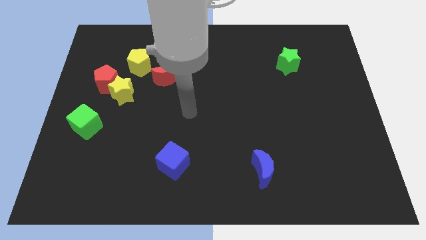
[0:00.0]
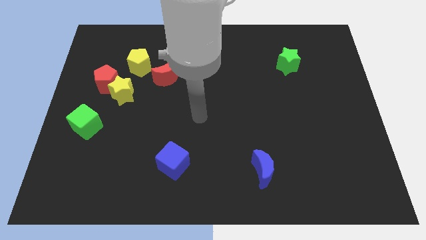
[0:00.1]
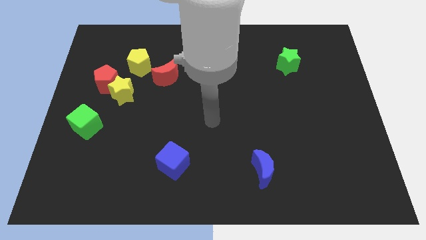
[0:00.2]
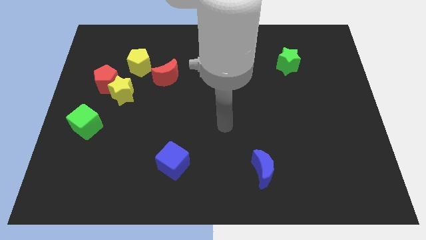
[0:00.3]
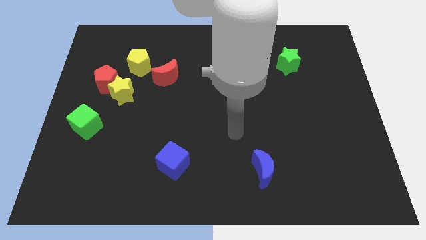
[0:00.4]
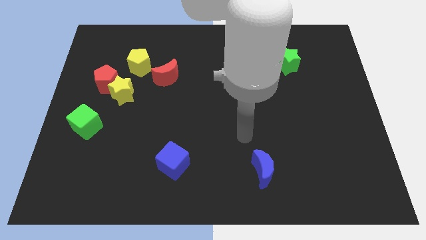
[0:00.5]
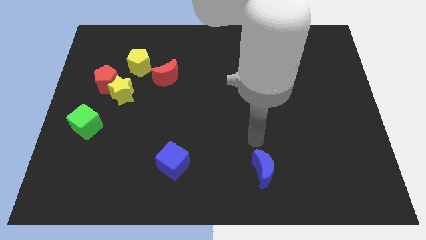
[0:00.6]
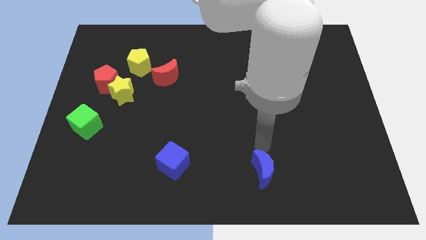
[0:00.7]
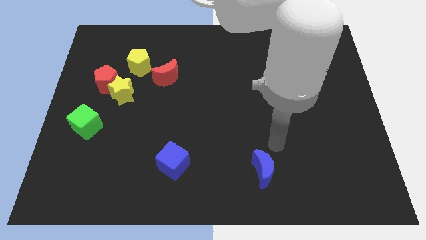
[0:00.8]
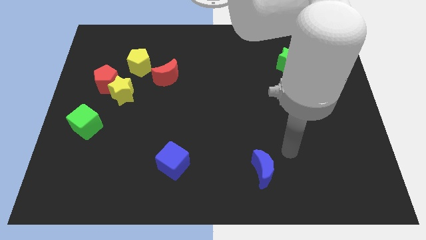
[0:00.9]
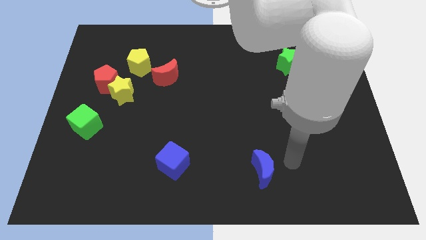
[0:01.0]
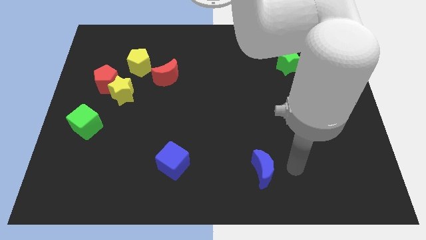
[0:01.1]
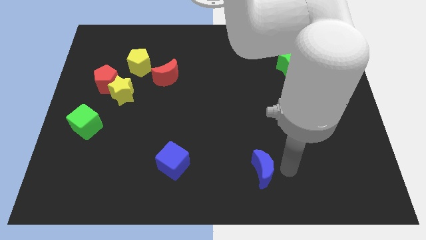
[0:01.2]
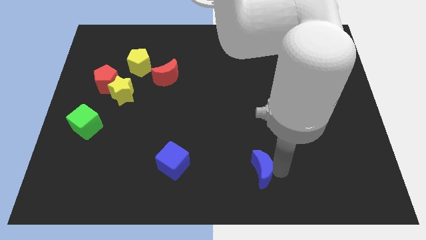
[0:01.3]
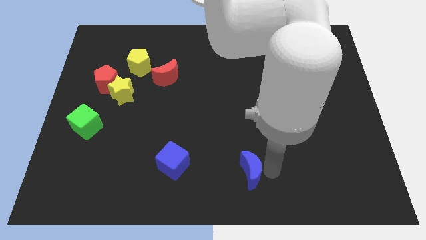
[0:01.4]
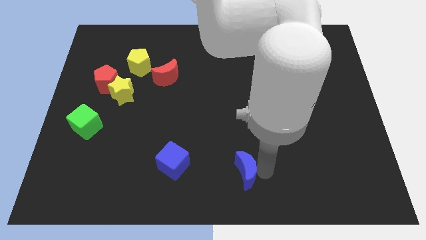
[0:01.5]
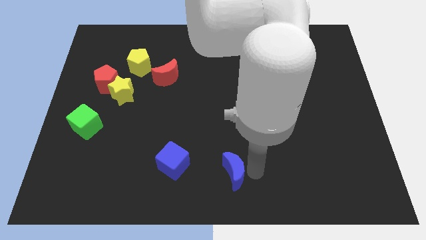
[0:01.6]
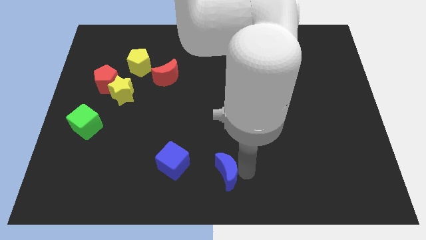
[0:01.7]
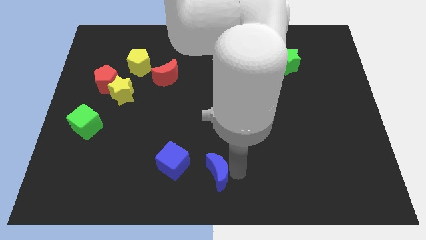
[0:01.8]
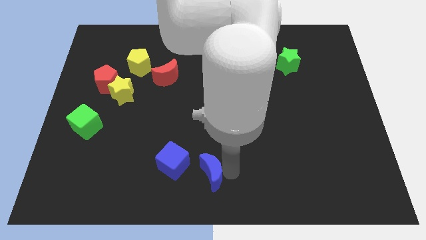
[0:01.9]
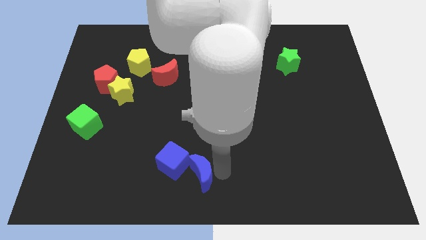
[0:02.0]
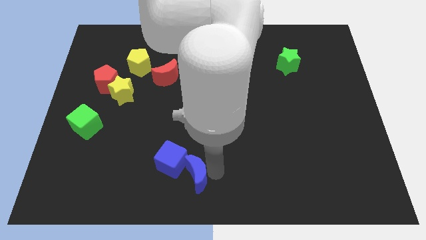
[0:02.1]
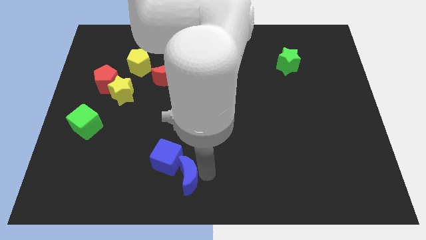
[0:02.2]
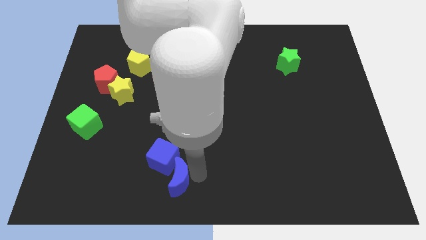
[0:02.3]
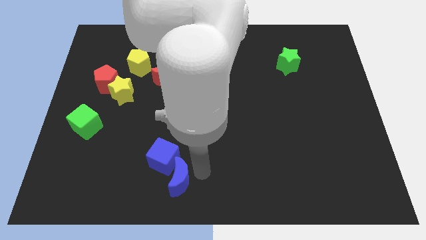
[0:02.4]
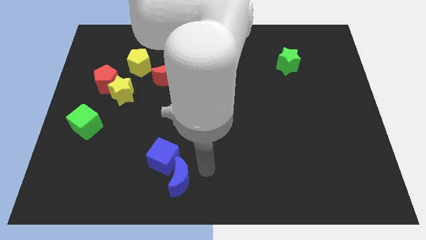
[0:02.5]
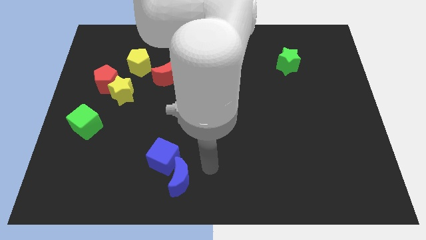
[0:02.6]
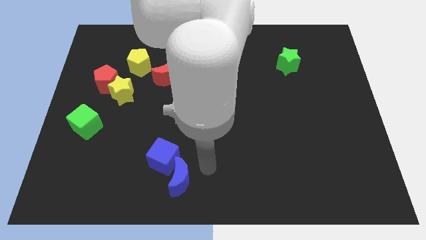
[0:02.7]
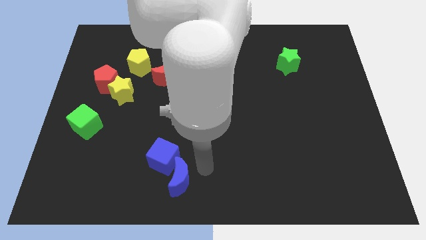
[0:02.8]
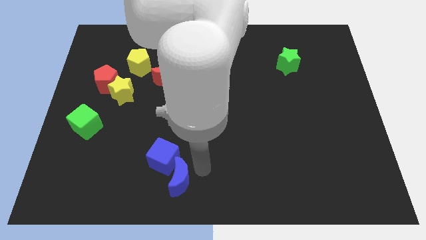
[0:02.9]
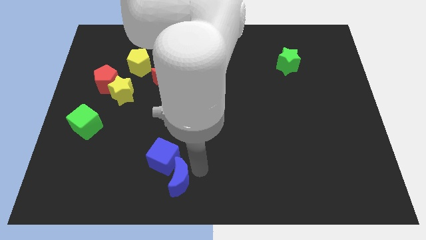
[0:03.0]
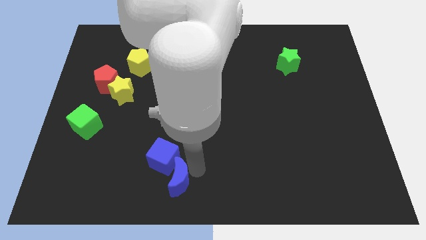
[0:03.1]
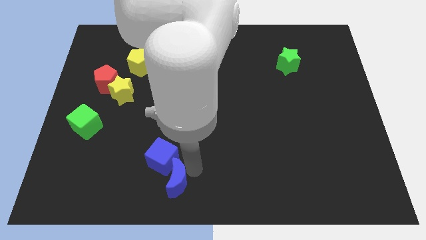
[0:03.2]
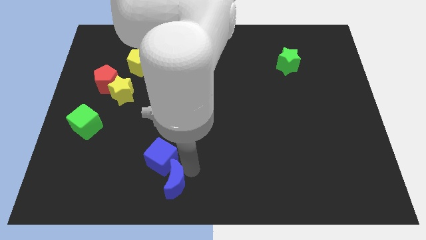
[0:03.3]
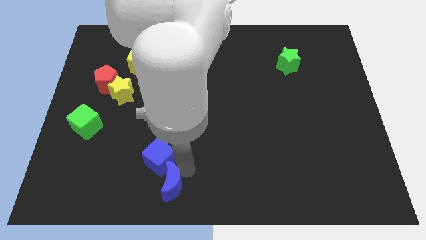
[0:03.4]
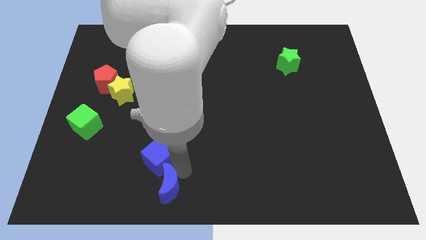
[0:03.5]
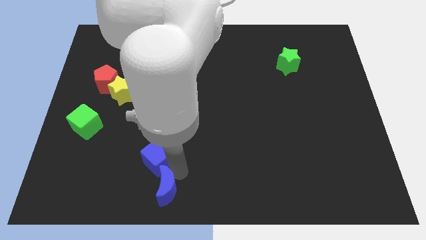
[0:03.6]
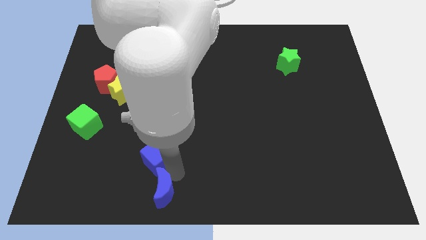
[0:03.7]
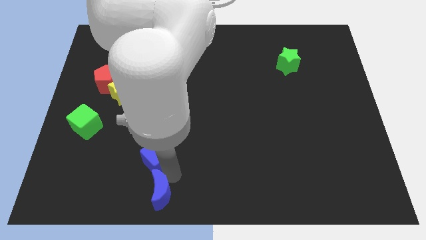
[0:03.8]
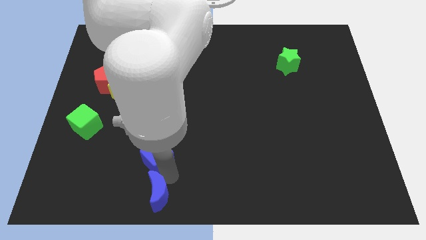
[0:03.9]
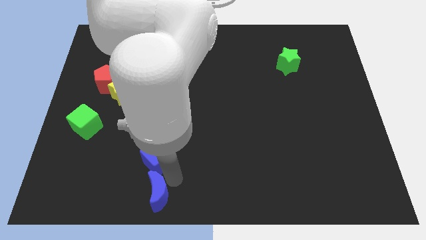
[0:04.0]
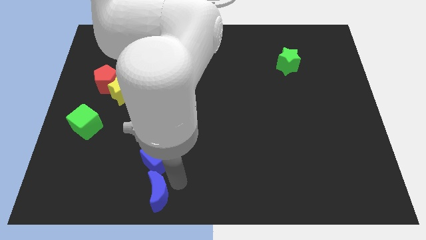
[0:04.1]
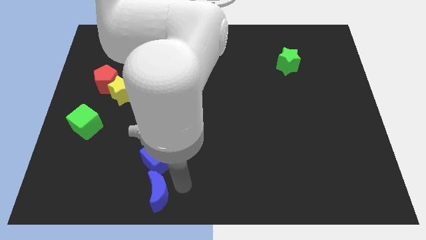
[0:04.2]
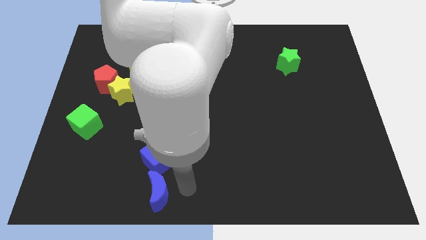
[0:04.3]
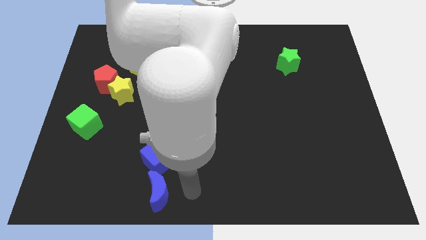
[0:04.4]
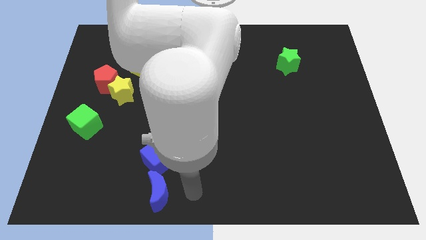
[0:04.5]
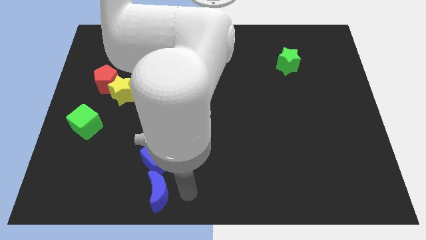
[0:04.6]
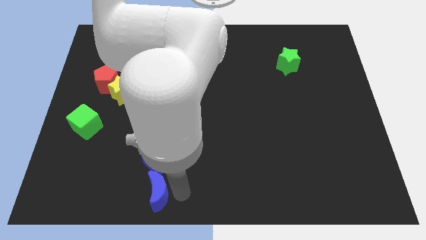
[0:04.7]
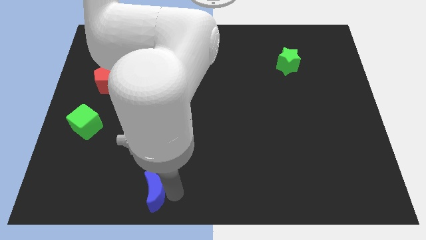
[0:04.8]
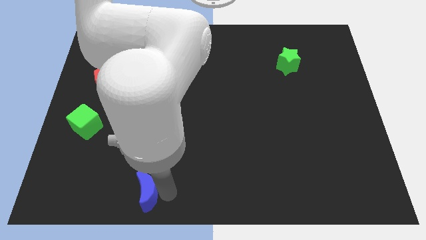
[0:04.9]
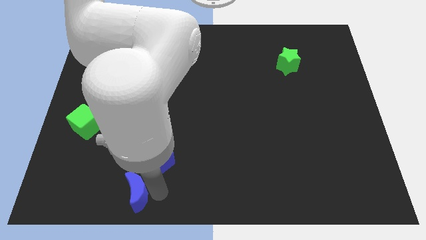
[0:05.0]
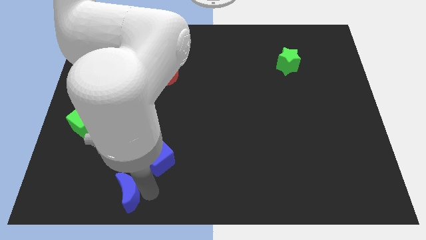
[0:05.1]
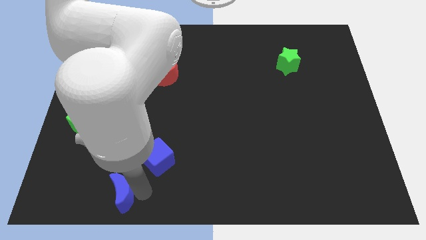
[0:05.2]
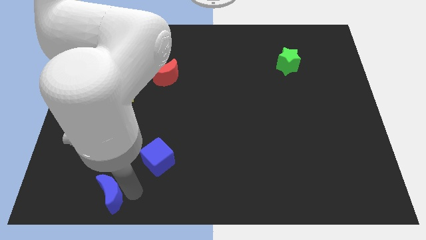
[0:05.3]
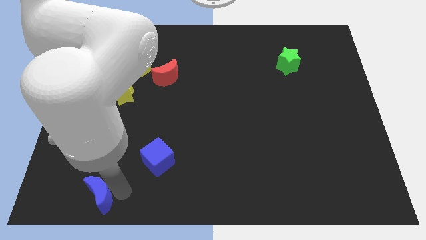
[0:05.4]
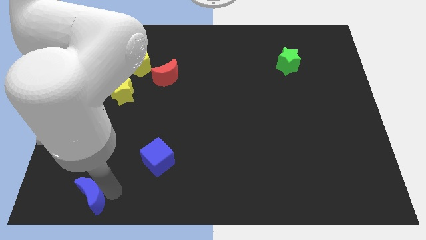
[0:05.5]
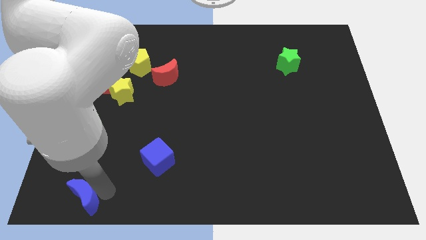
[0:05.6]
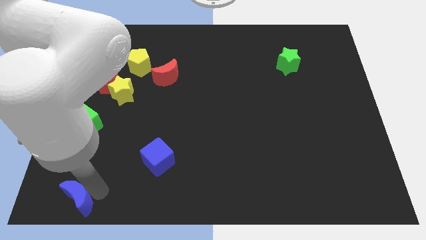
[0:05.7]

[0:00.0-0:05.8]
put the blue moon to the lower left corner

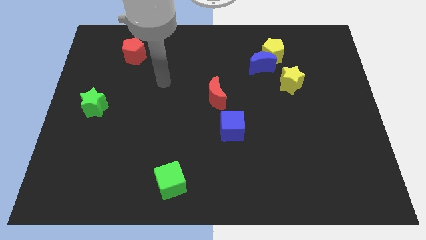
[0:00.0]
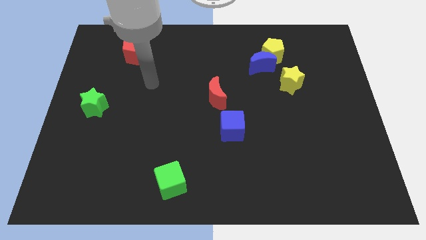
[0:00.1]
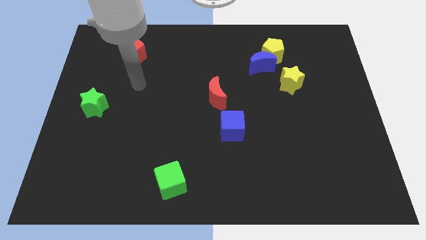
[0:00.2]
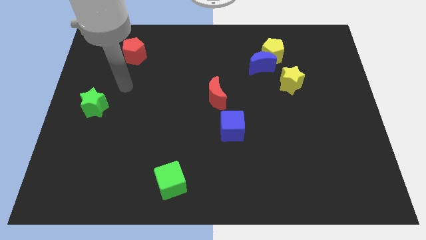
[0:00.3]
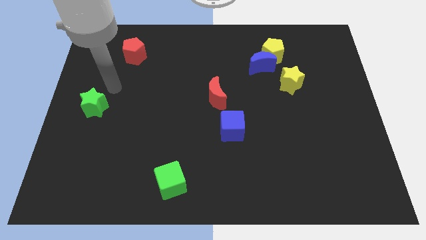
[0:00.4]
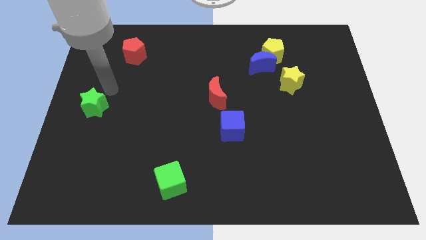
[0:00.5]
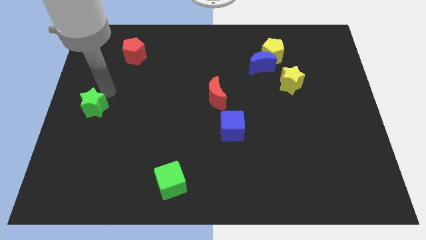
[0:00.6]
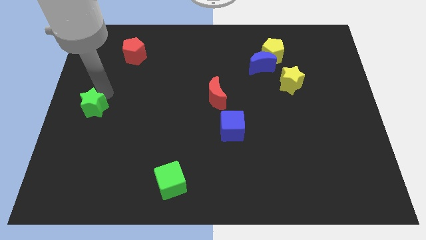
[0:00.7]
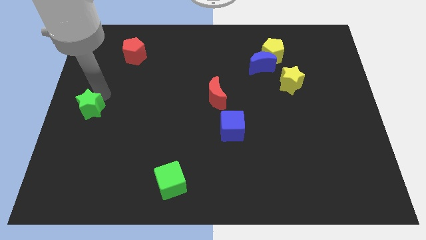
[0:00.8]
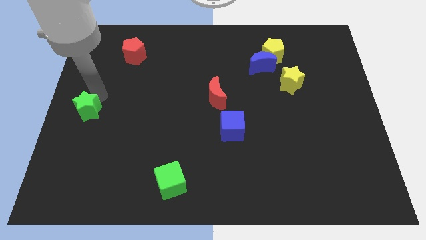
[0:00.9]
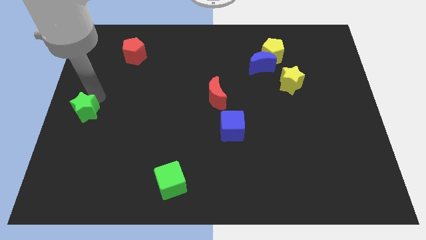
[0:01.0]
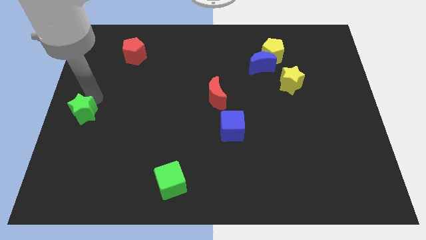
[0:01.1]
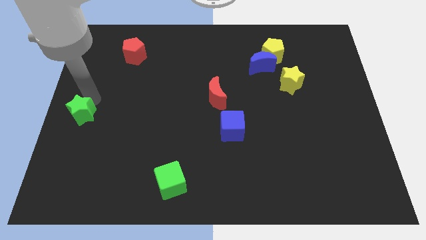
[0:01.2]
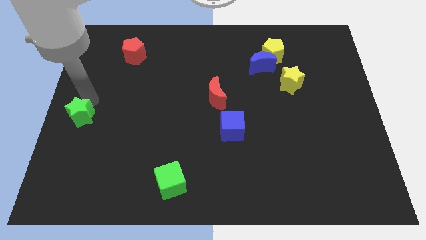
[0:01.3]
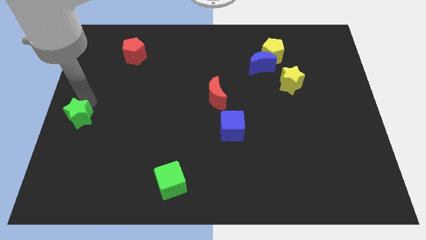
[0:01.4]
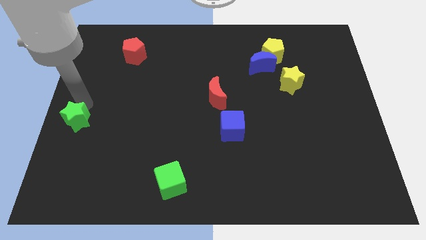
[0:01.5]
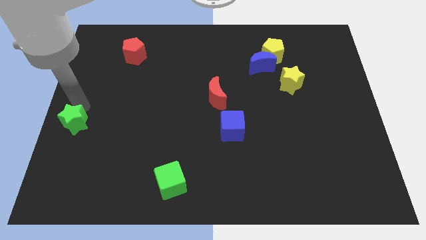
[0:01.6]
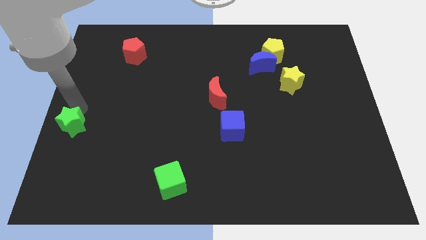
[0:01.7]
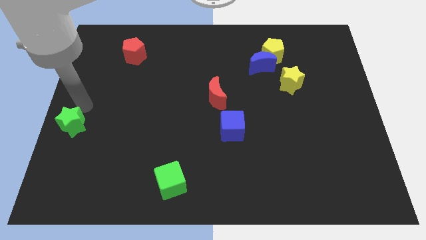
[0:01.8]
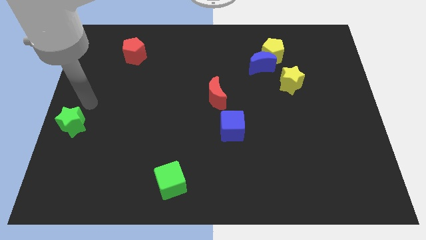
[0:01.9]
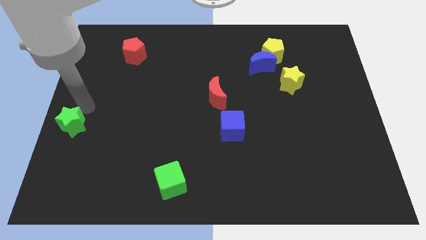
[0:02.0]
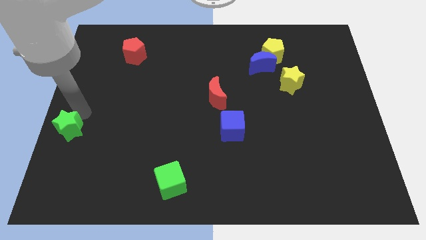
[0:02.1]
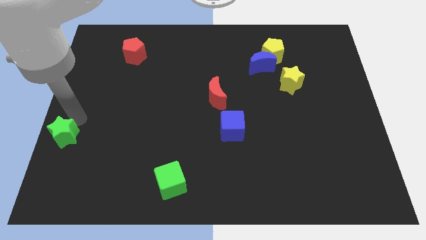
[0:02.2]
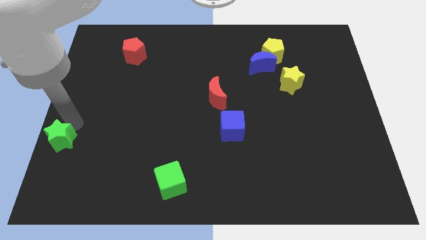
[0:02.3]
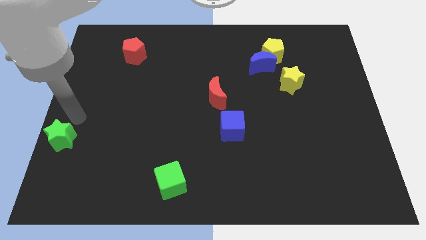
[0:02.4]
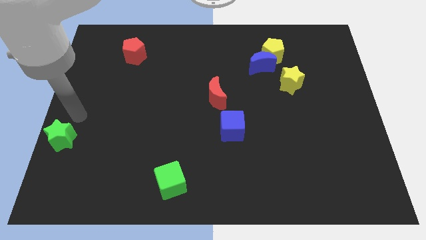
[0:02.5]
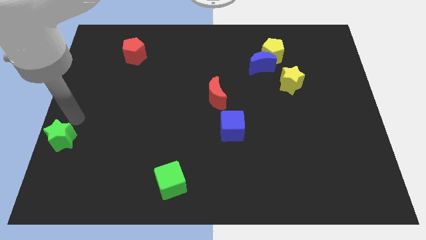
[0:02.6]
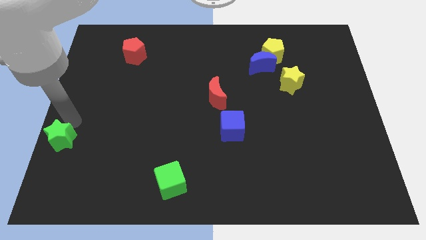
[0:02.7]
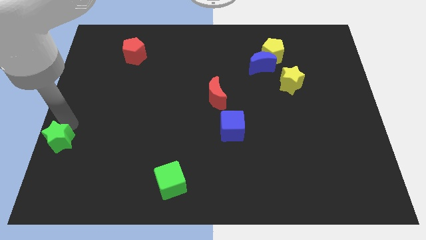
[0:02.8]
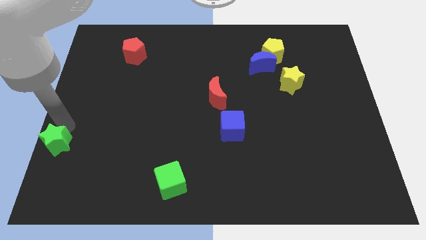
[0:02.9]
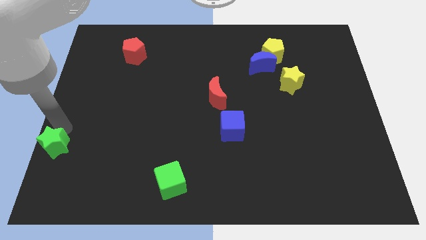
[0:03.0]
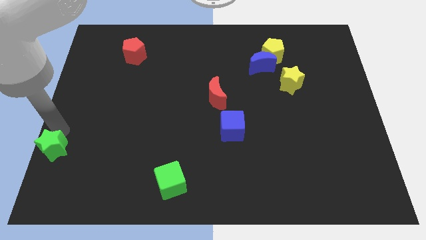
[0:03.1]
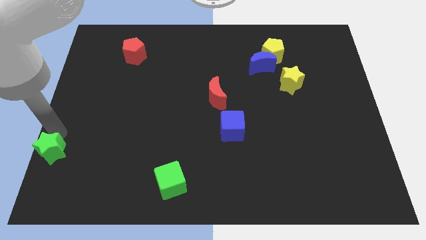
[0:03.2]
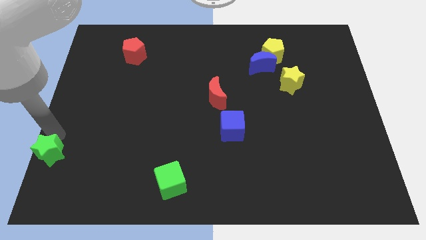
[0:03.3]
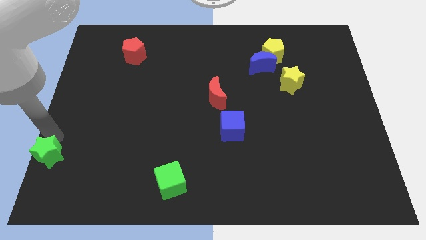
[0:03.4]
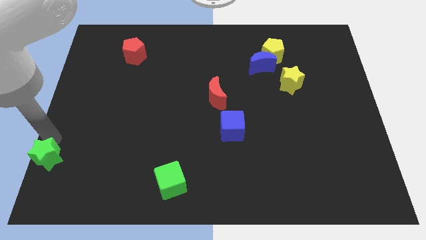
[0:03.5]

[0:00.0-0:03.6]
move the green star to the bottom left
